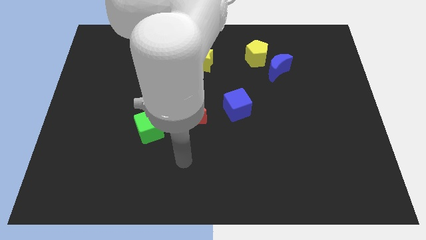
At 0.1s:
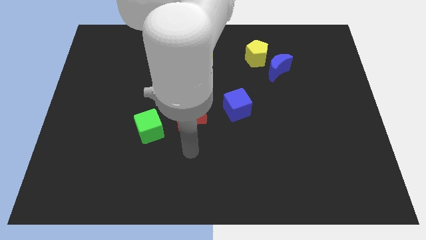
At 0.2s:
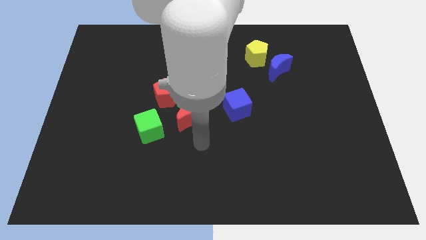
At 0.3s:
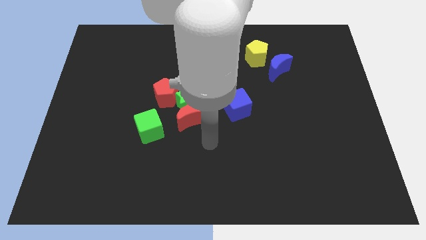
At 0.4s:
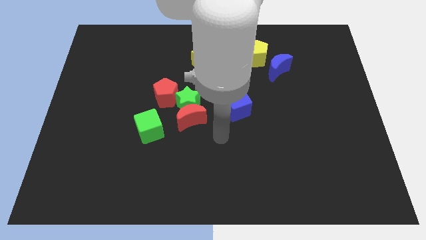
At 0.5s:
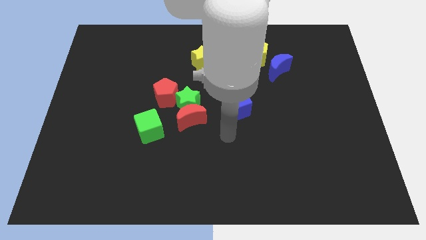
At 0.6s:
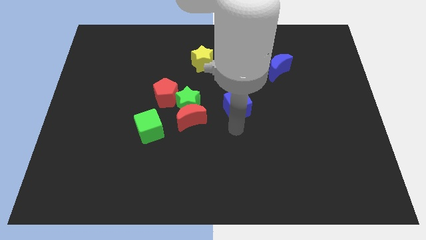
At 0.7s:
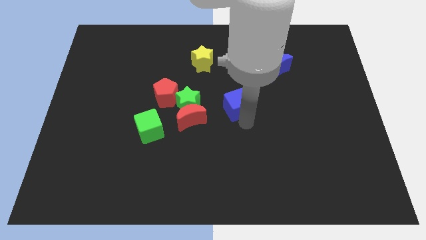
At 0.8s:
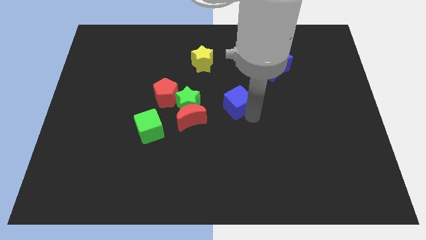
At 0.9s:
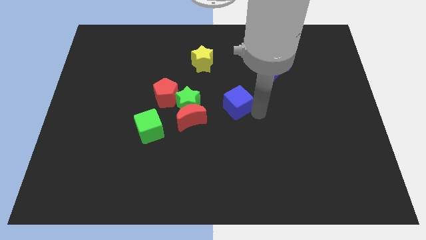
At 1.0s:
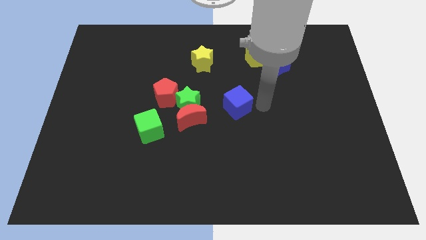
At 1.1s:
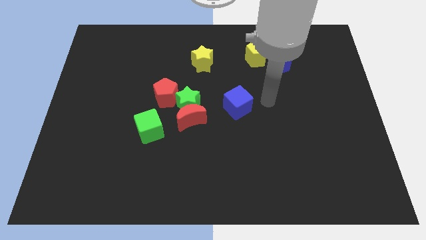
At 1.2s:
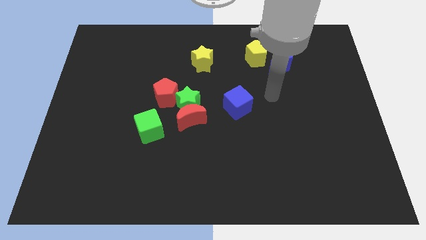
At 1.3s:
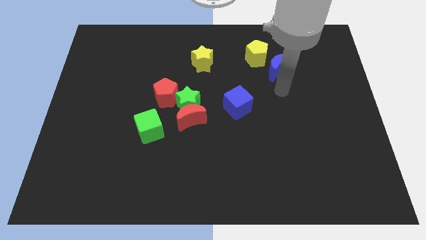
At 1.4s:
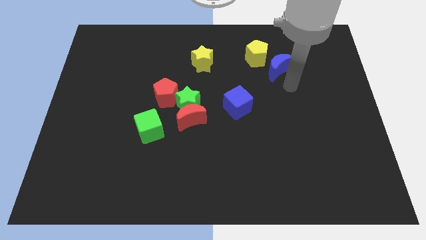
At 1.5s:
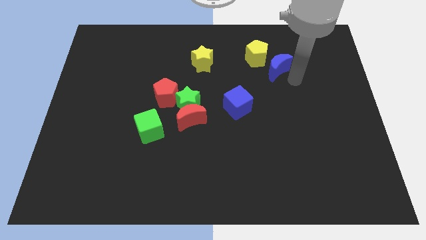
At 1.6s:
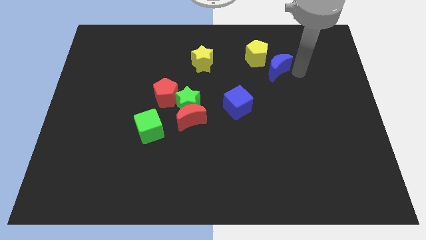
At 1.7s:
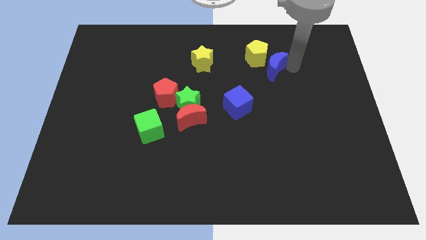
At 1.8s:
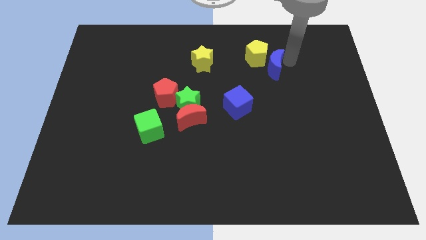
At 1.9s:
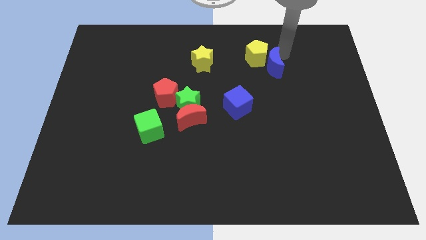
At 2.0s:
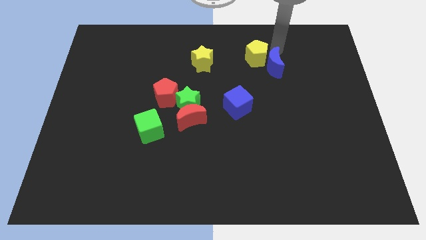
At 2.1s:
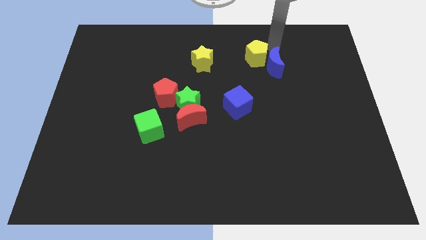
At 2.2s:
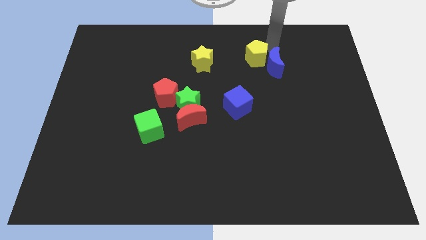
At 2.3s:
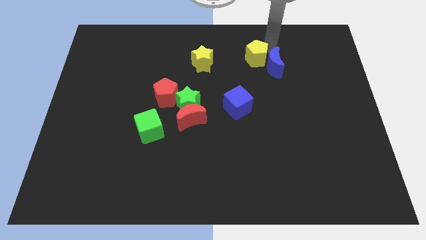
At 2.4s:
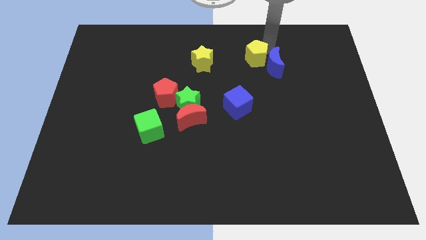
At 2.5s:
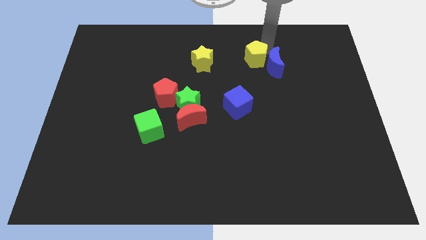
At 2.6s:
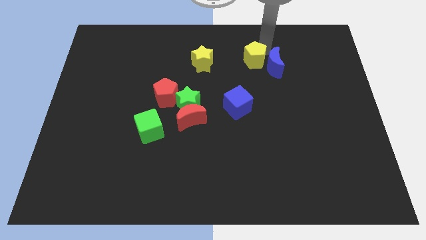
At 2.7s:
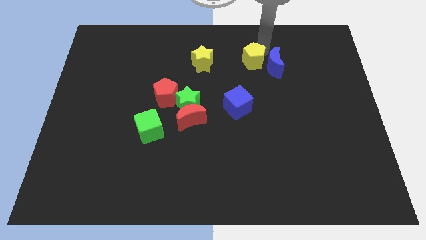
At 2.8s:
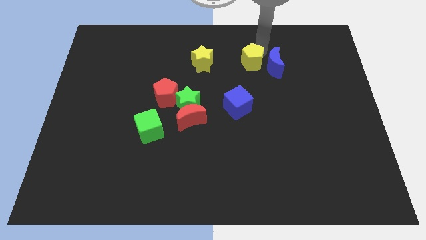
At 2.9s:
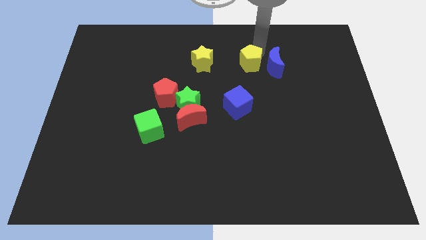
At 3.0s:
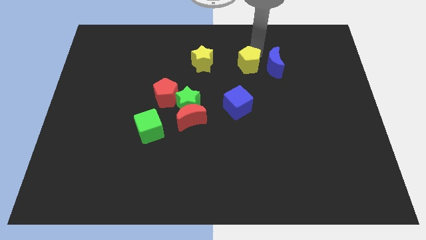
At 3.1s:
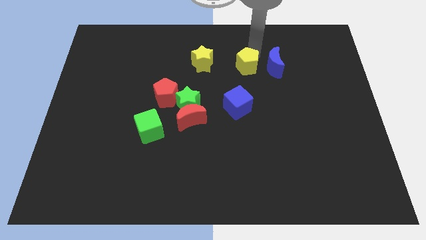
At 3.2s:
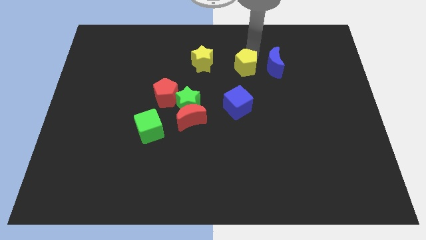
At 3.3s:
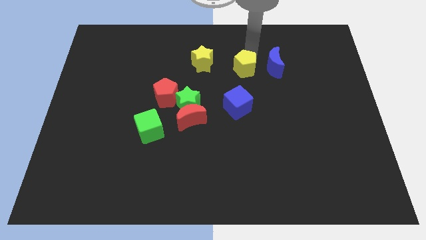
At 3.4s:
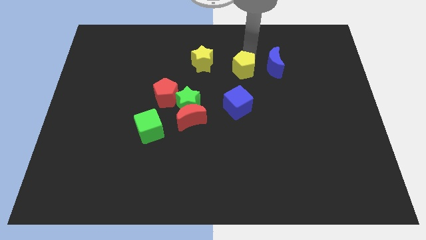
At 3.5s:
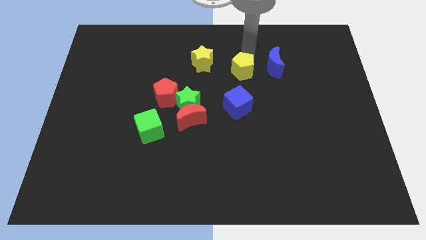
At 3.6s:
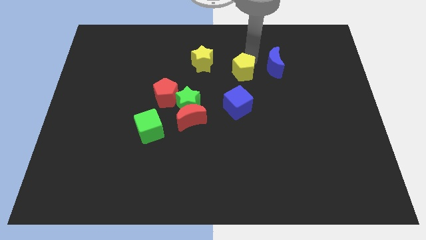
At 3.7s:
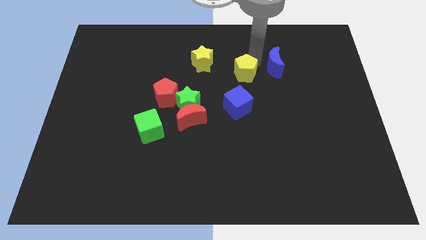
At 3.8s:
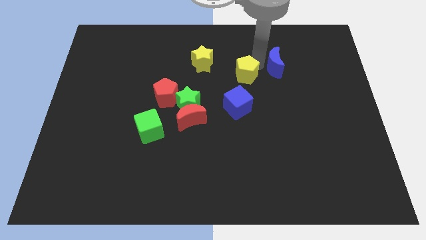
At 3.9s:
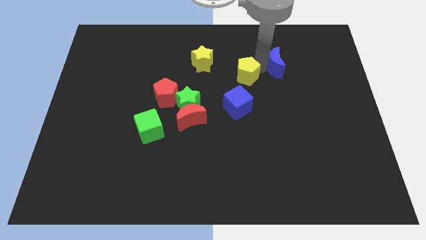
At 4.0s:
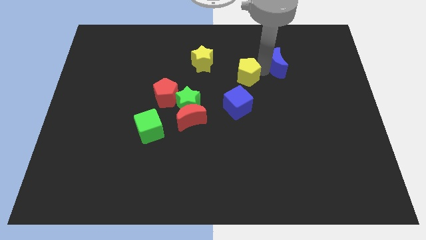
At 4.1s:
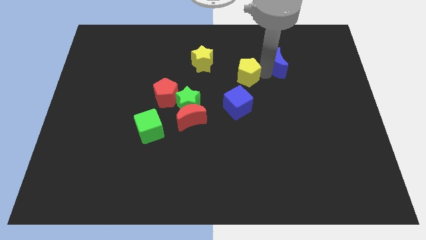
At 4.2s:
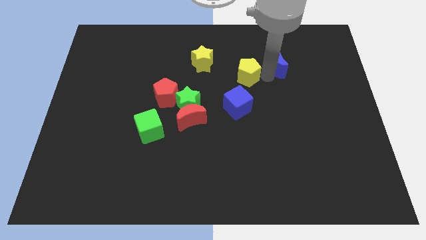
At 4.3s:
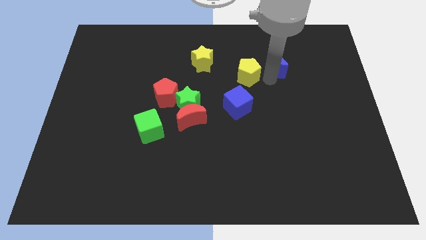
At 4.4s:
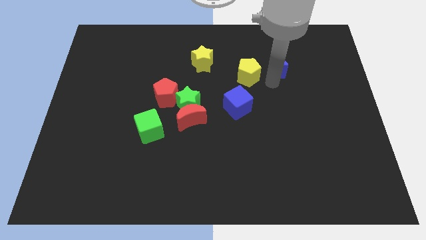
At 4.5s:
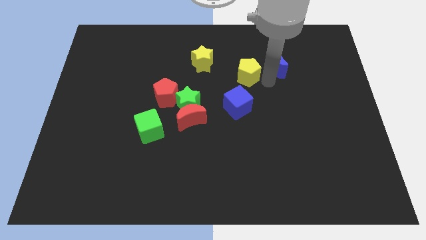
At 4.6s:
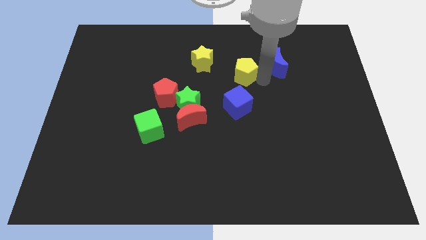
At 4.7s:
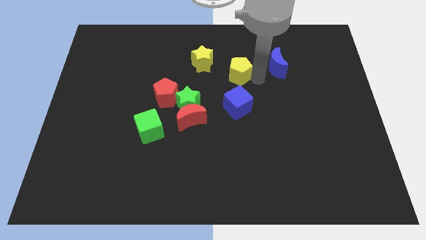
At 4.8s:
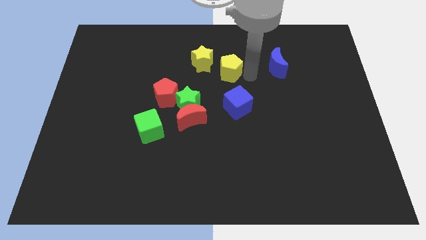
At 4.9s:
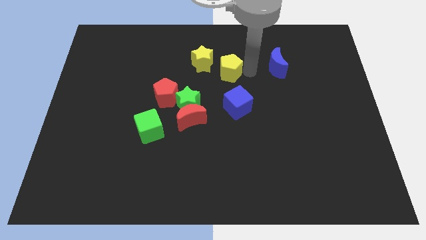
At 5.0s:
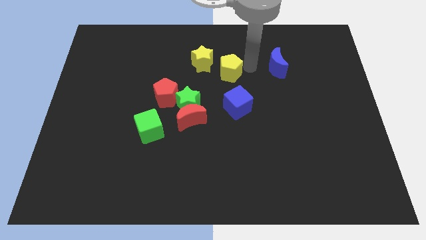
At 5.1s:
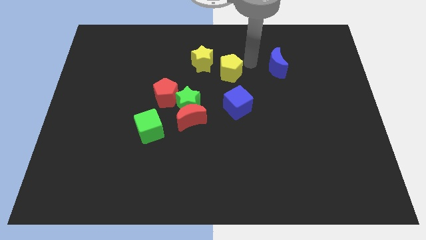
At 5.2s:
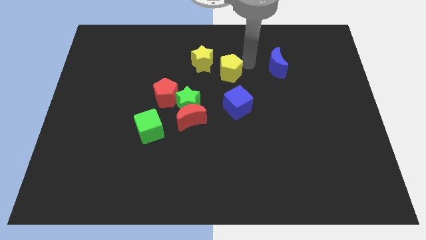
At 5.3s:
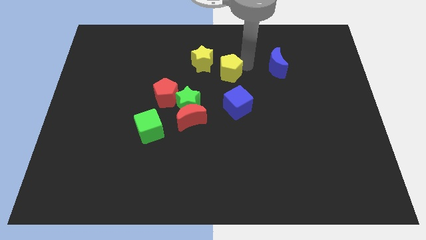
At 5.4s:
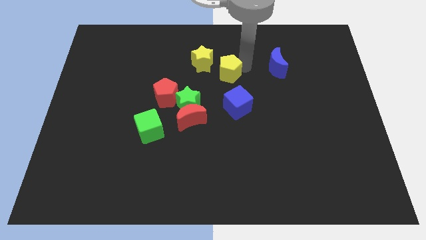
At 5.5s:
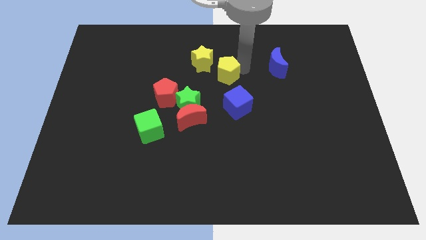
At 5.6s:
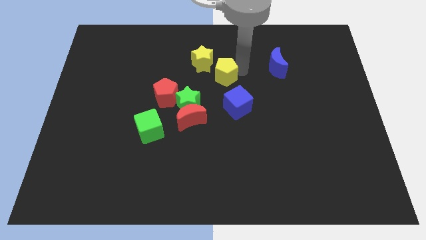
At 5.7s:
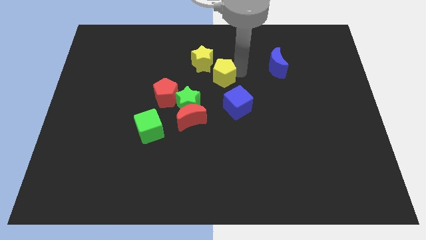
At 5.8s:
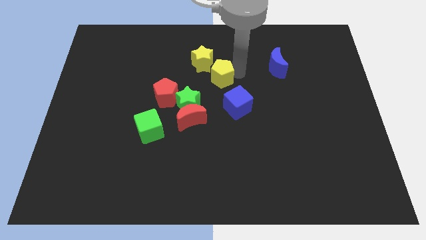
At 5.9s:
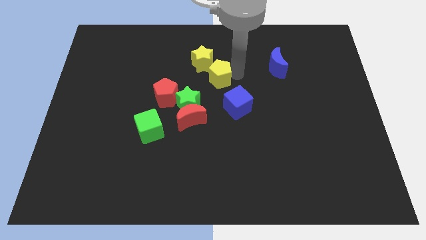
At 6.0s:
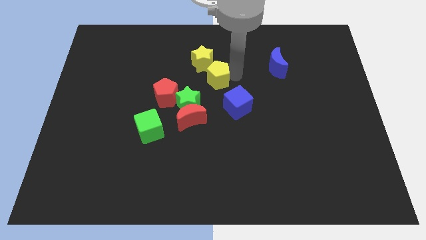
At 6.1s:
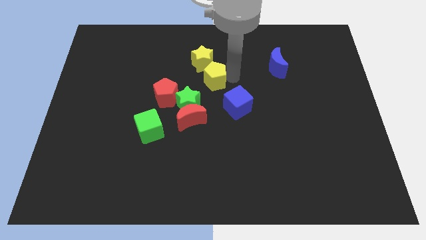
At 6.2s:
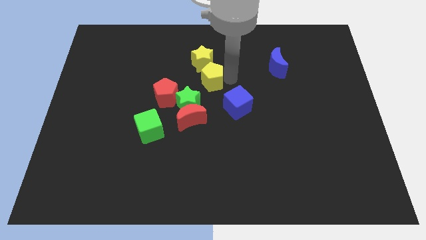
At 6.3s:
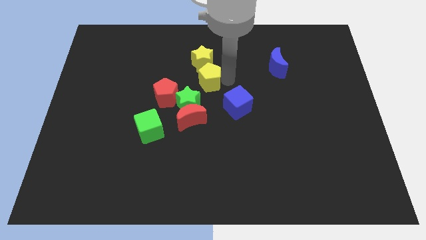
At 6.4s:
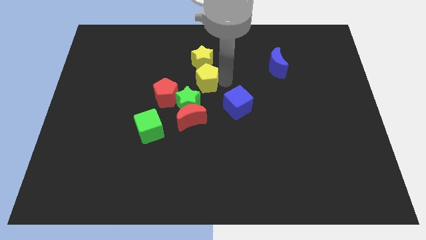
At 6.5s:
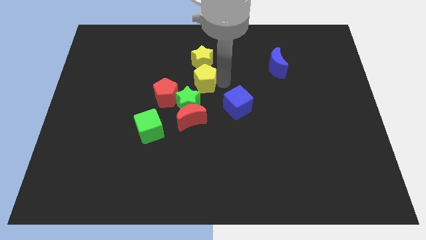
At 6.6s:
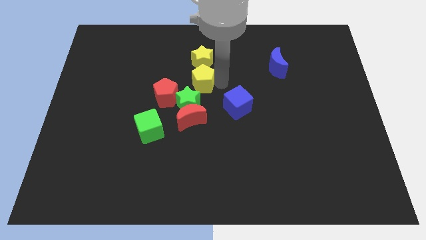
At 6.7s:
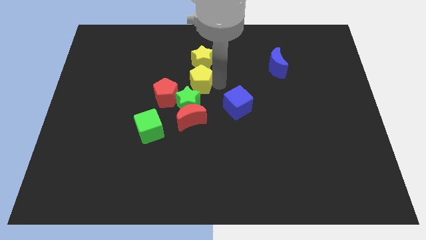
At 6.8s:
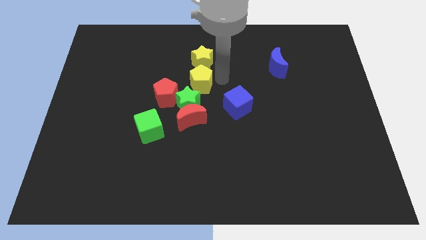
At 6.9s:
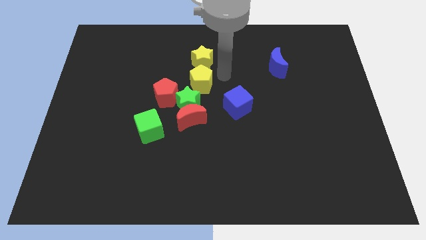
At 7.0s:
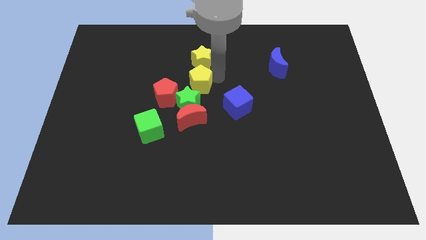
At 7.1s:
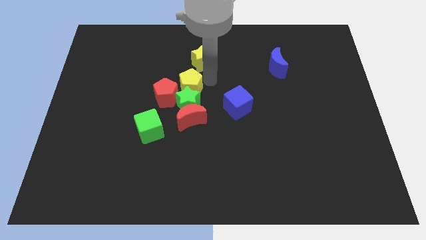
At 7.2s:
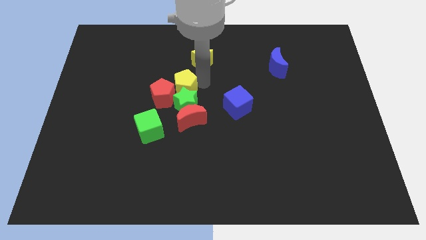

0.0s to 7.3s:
put the yellow pentagon close to the red pentagon
